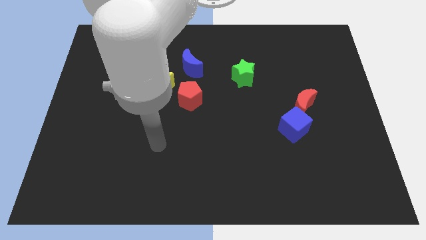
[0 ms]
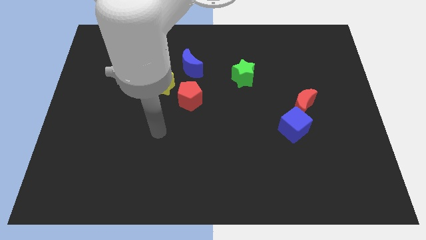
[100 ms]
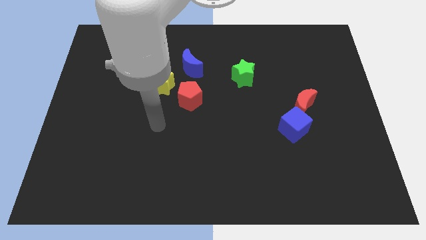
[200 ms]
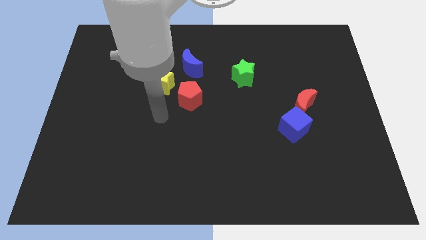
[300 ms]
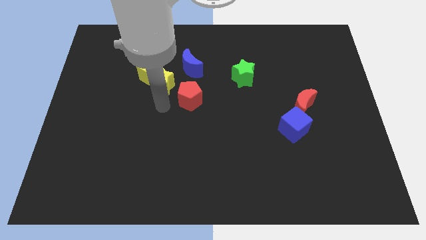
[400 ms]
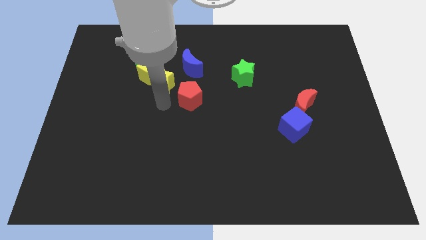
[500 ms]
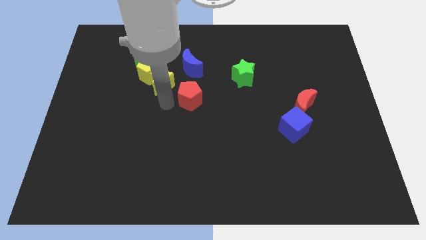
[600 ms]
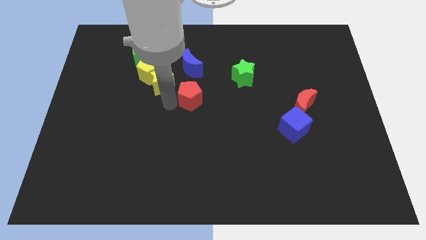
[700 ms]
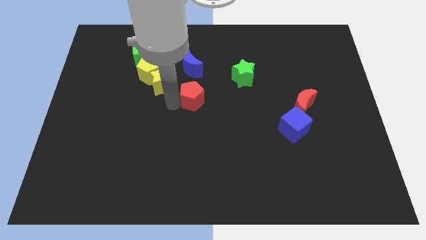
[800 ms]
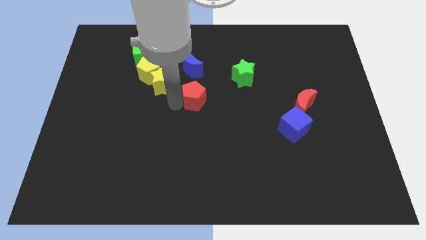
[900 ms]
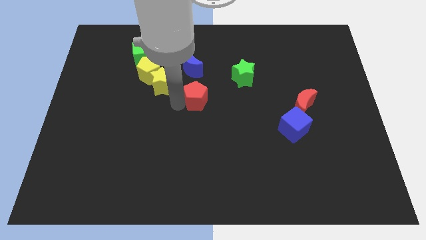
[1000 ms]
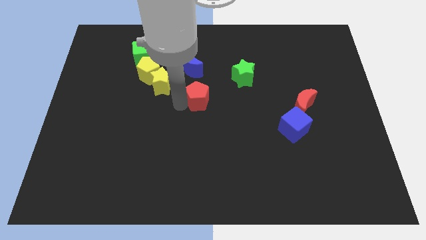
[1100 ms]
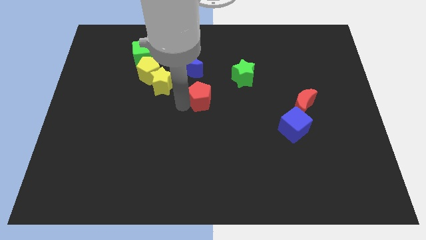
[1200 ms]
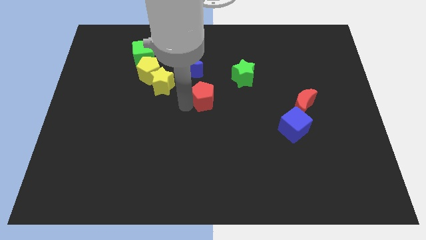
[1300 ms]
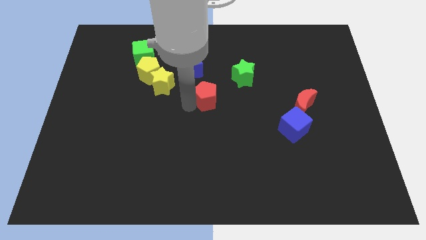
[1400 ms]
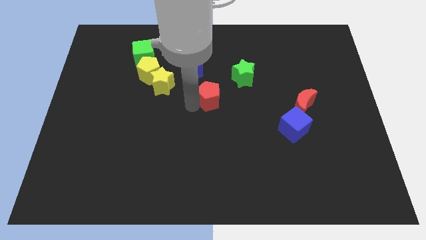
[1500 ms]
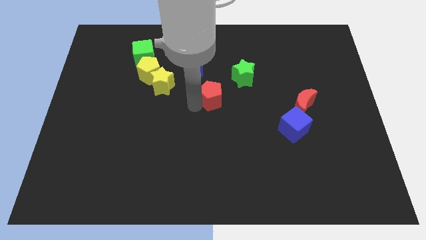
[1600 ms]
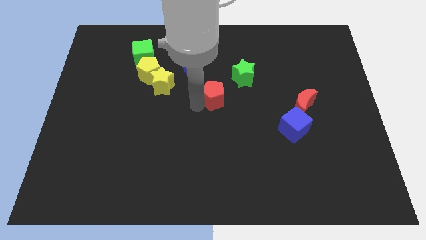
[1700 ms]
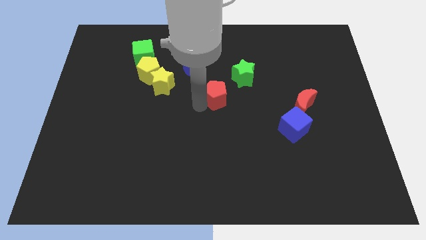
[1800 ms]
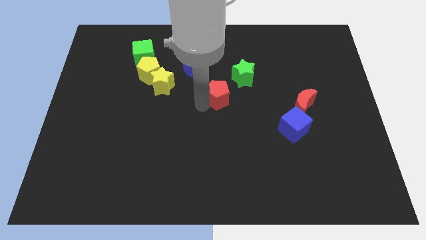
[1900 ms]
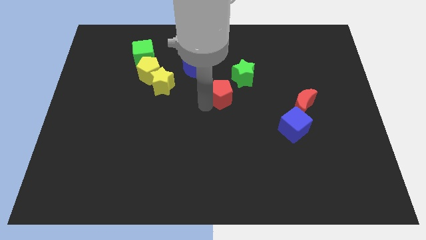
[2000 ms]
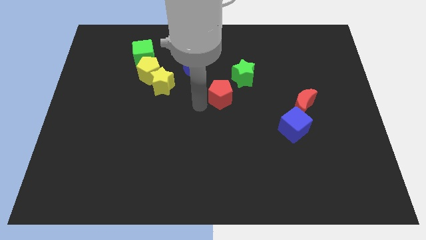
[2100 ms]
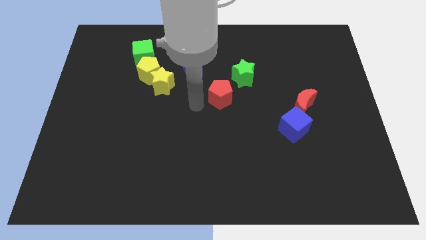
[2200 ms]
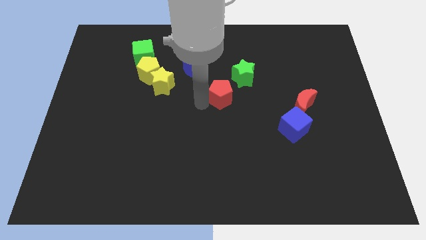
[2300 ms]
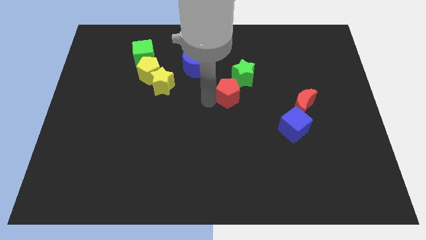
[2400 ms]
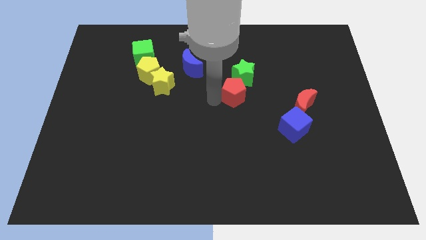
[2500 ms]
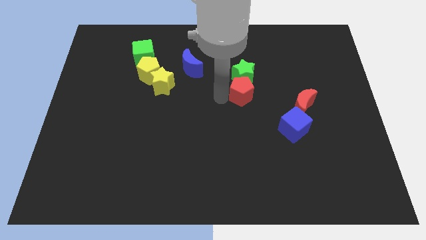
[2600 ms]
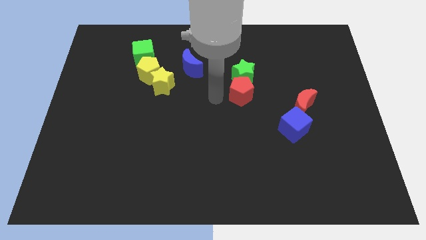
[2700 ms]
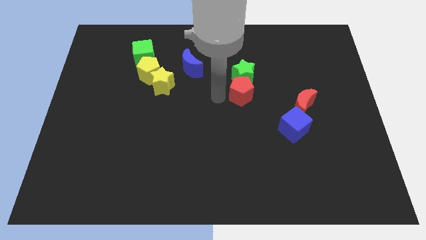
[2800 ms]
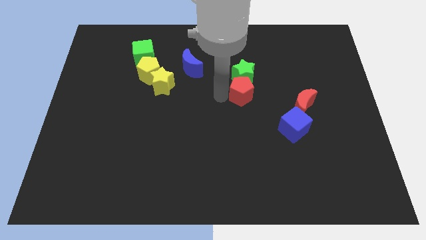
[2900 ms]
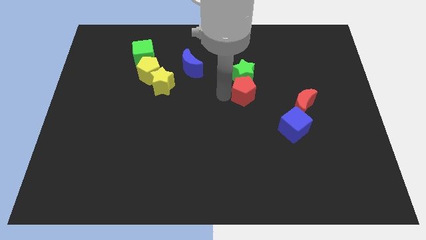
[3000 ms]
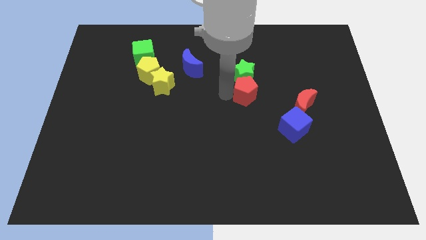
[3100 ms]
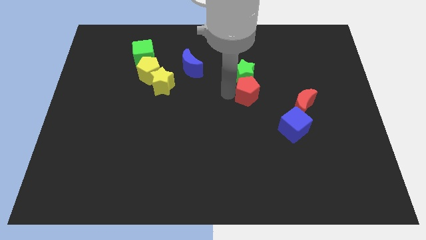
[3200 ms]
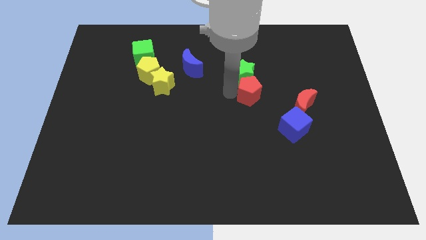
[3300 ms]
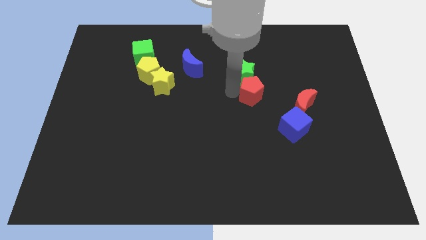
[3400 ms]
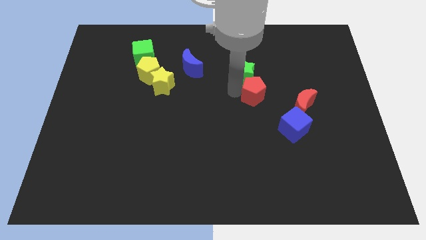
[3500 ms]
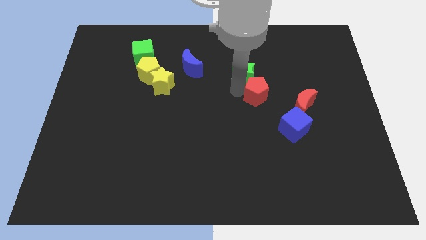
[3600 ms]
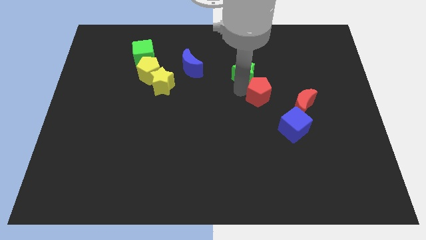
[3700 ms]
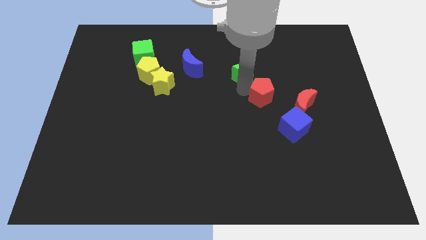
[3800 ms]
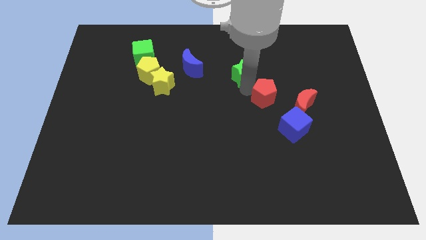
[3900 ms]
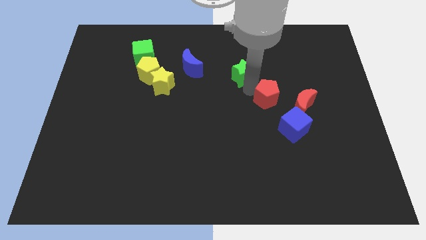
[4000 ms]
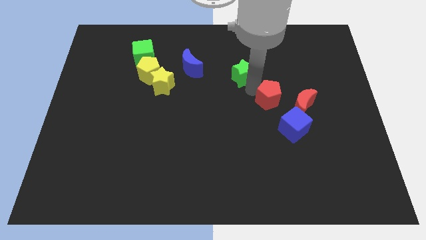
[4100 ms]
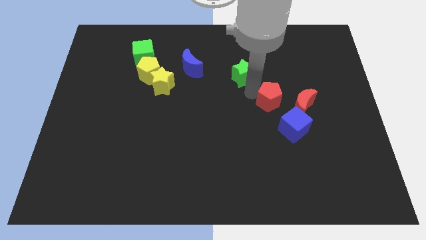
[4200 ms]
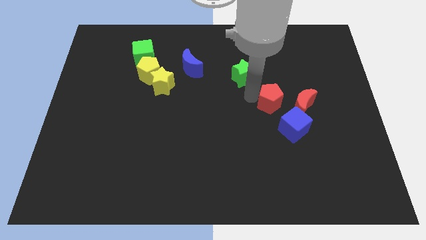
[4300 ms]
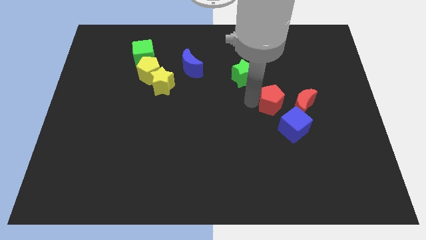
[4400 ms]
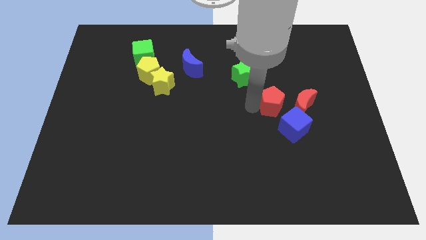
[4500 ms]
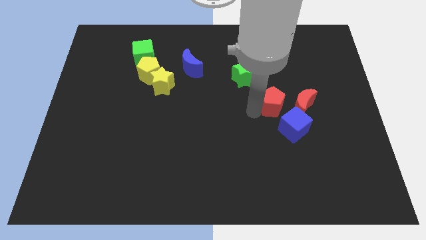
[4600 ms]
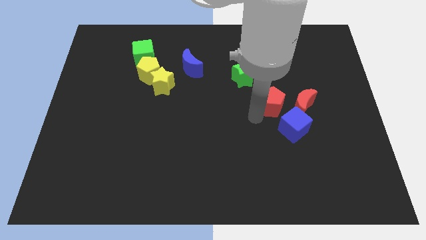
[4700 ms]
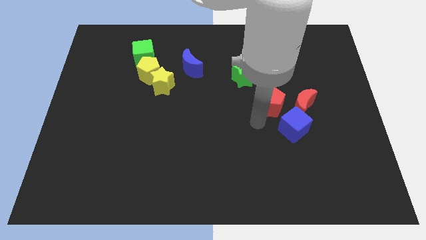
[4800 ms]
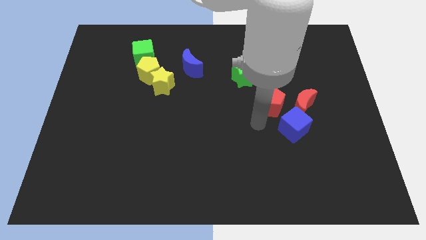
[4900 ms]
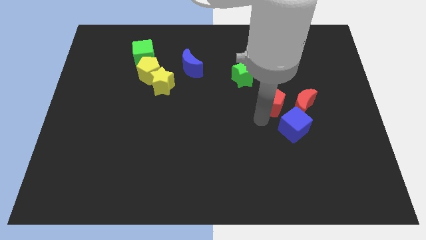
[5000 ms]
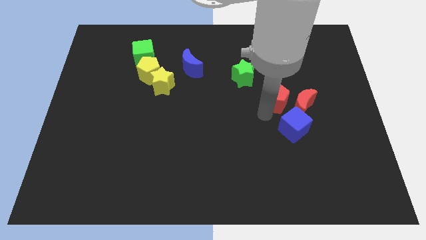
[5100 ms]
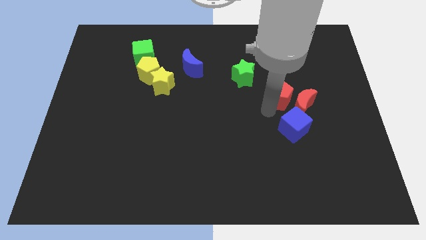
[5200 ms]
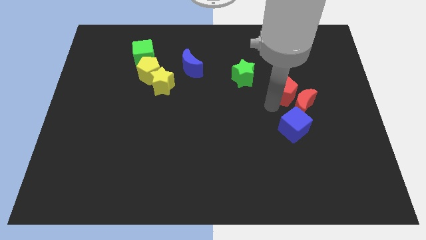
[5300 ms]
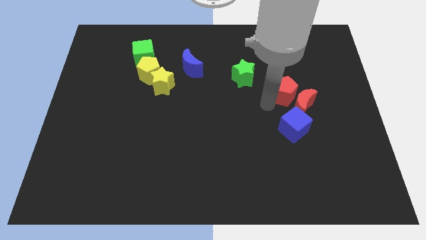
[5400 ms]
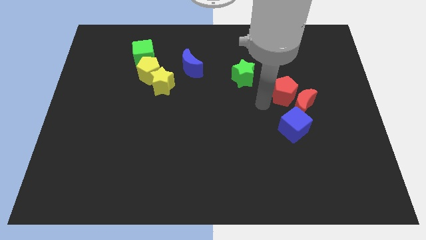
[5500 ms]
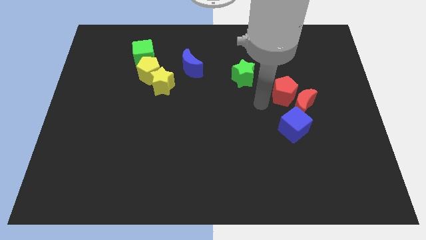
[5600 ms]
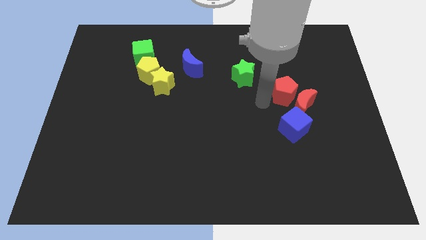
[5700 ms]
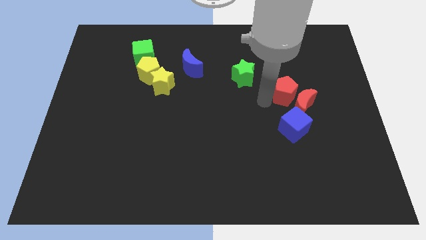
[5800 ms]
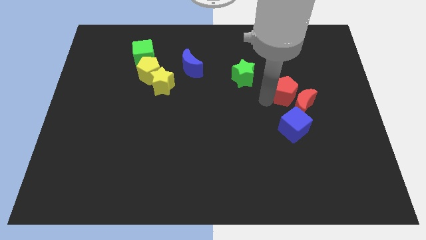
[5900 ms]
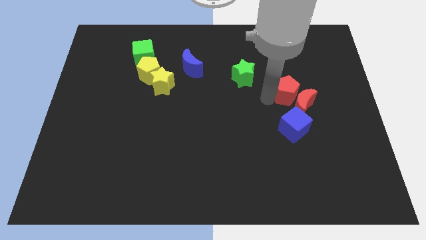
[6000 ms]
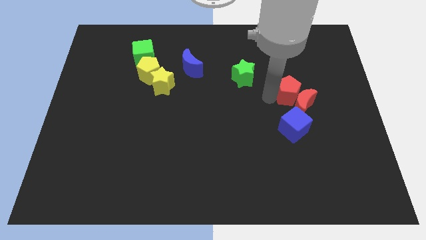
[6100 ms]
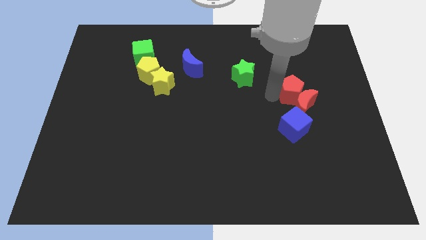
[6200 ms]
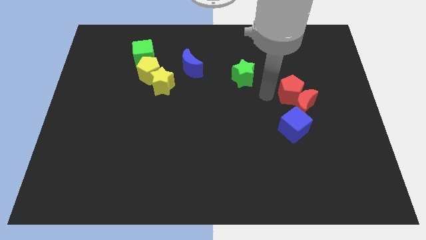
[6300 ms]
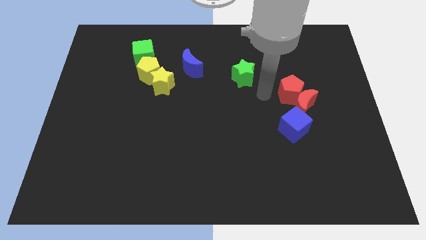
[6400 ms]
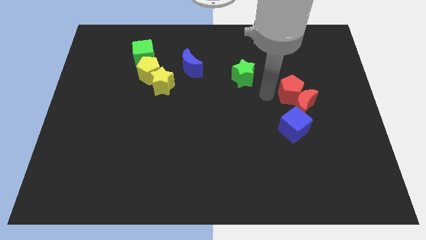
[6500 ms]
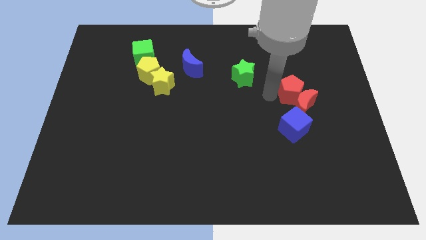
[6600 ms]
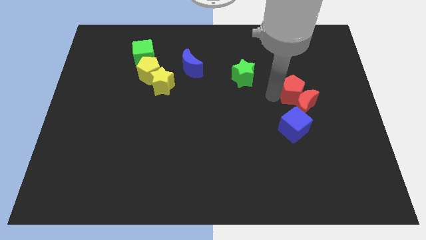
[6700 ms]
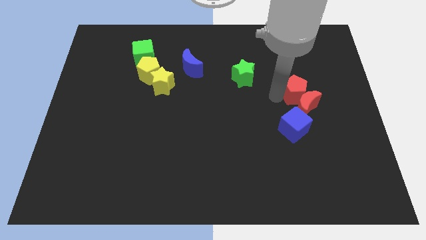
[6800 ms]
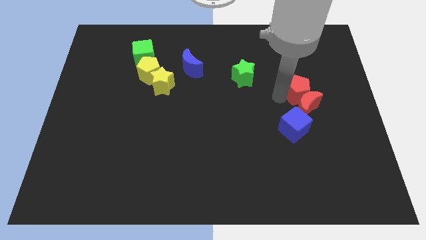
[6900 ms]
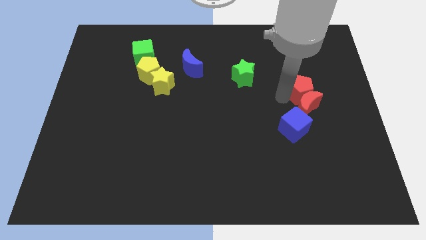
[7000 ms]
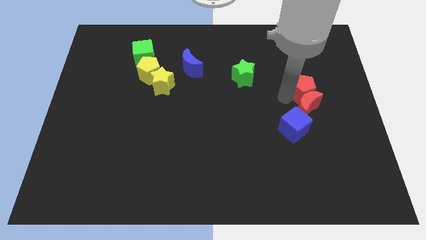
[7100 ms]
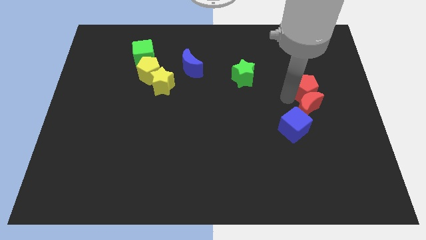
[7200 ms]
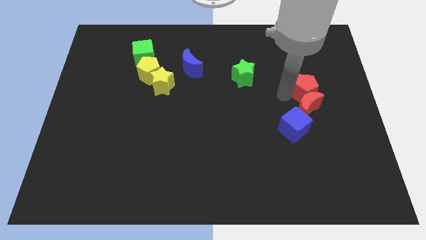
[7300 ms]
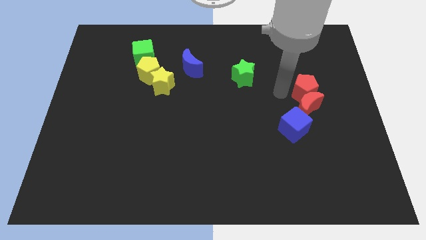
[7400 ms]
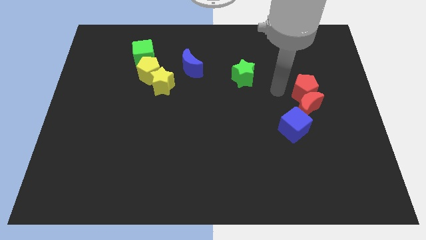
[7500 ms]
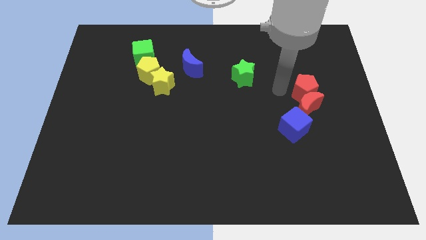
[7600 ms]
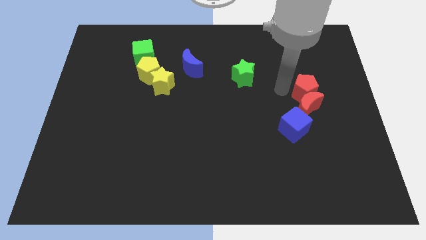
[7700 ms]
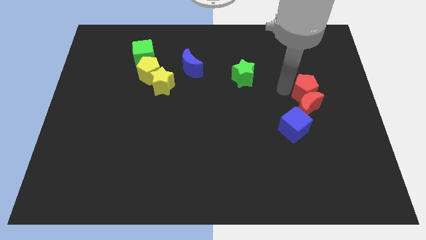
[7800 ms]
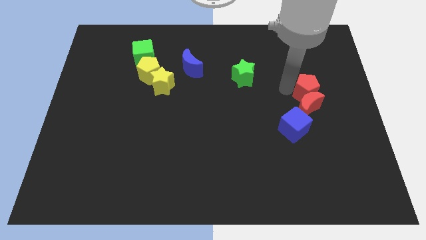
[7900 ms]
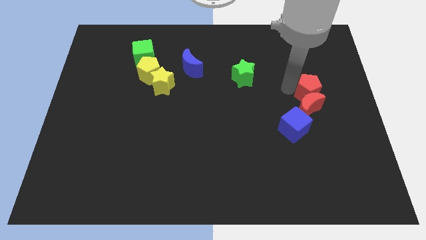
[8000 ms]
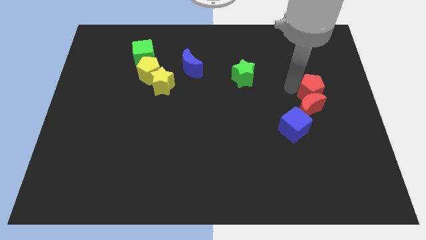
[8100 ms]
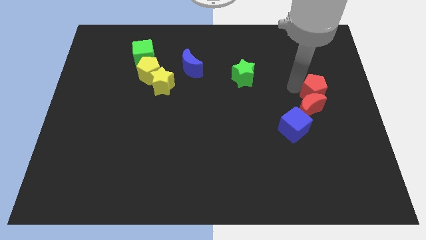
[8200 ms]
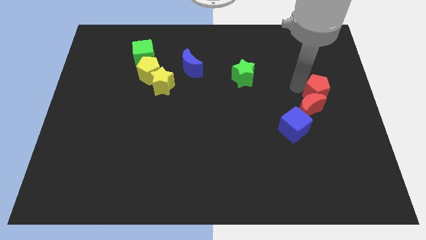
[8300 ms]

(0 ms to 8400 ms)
slide the red pentagon to the right side
